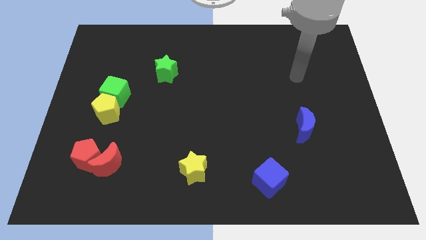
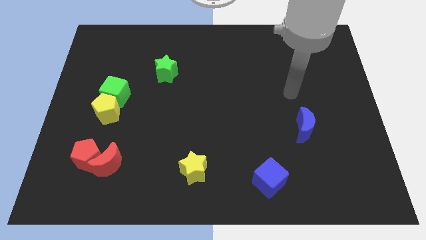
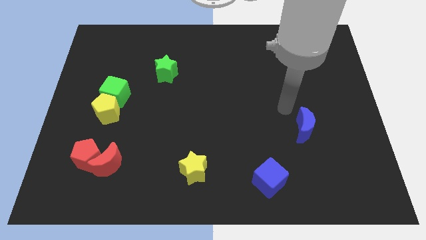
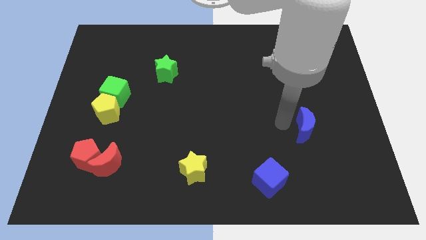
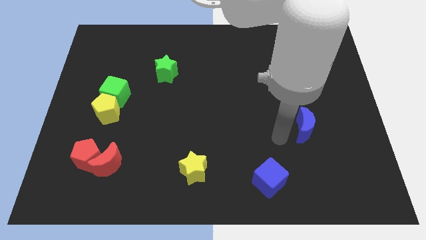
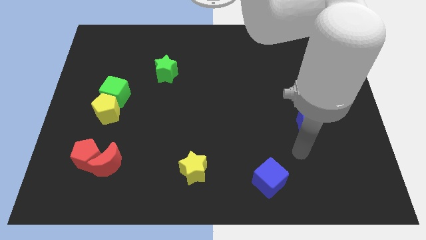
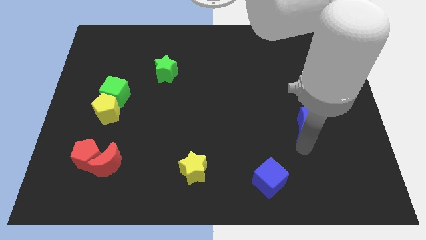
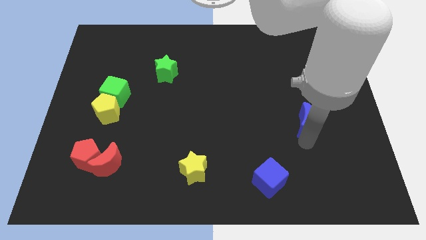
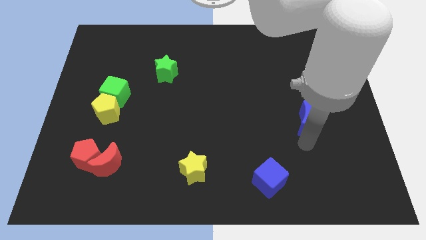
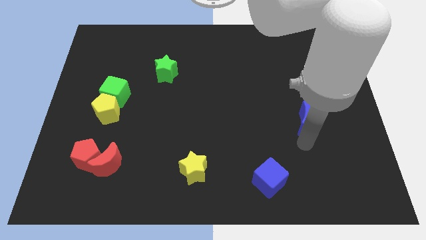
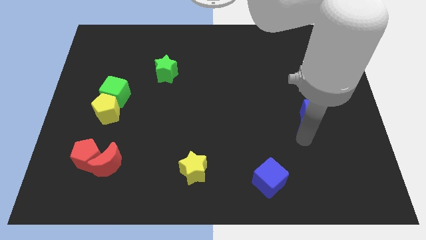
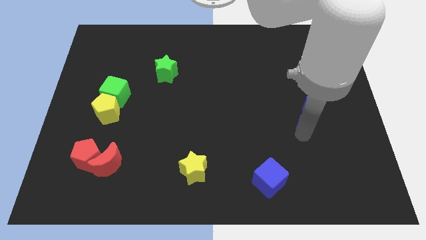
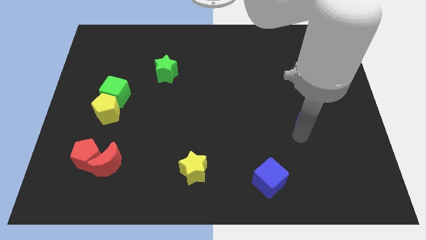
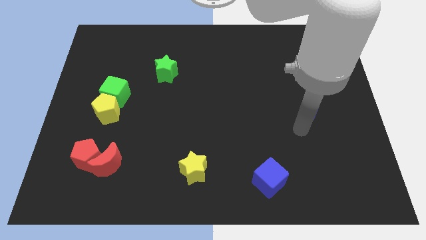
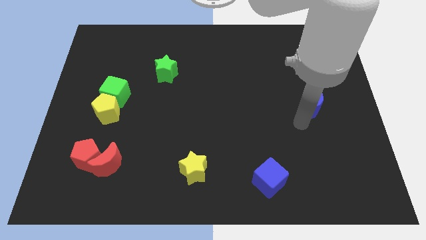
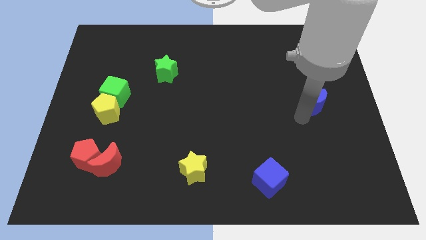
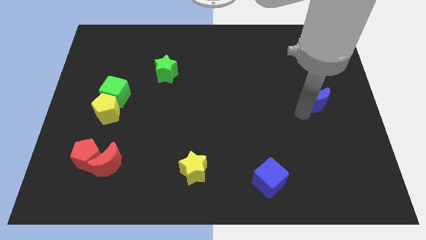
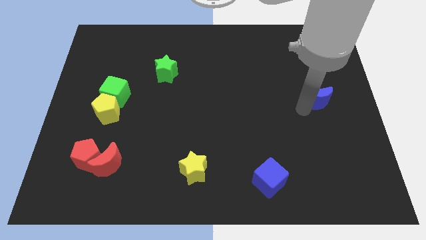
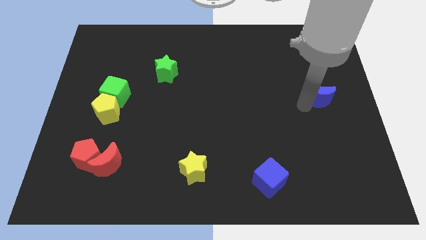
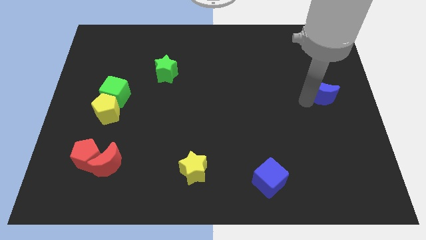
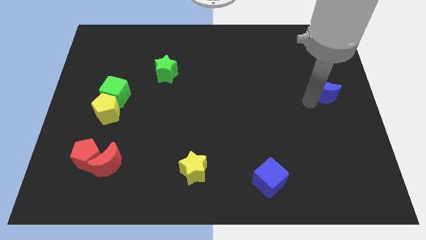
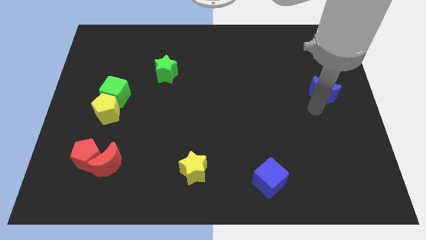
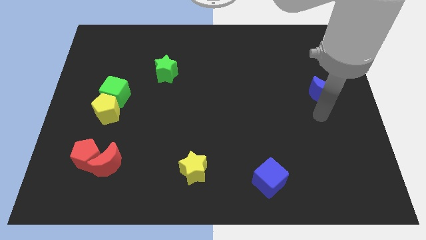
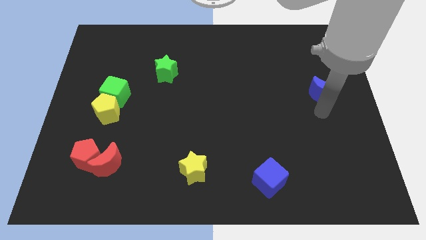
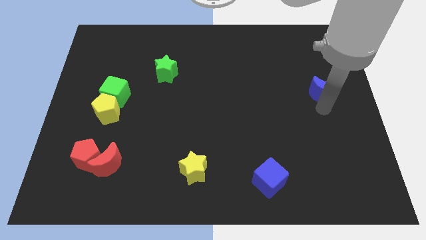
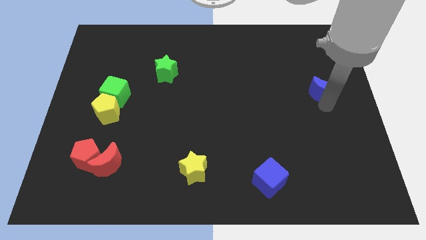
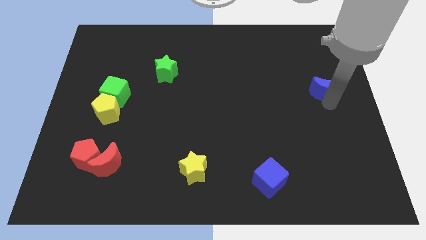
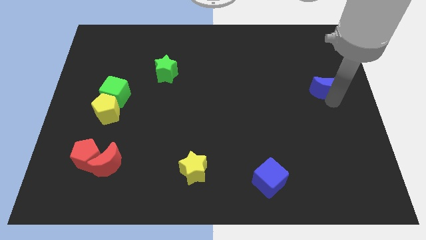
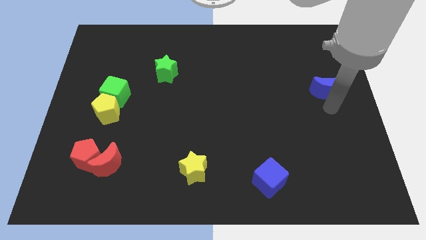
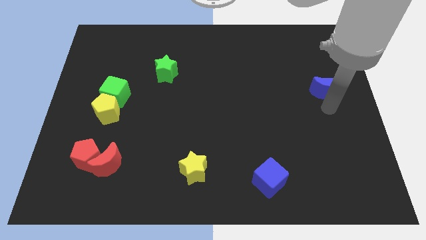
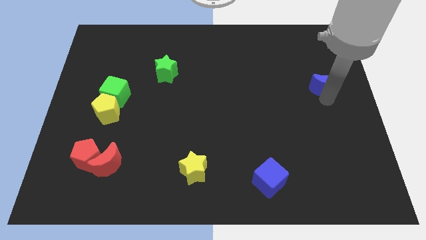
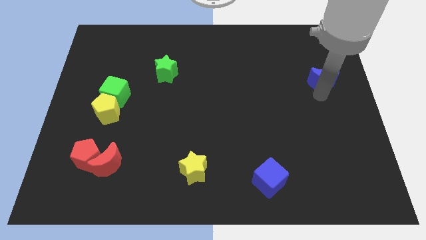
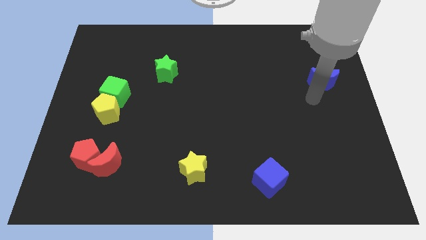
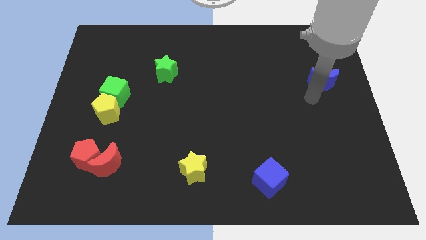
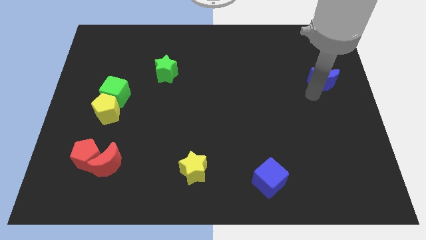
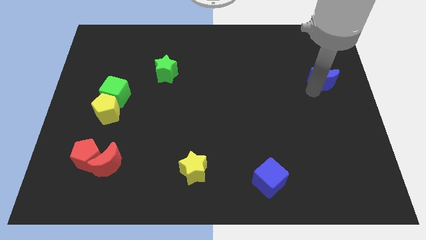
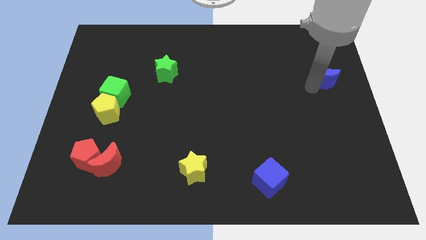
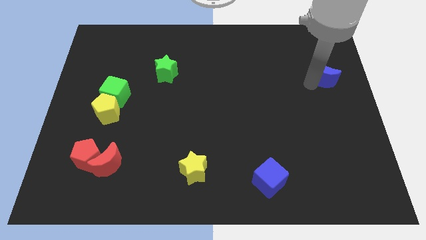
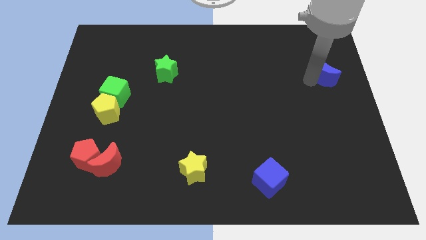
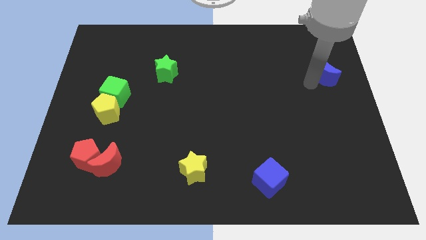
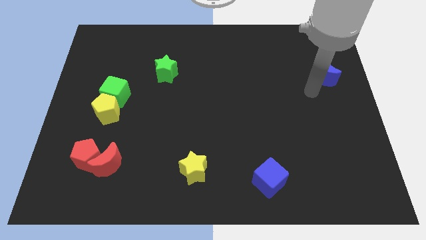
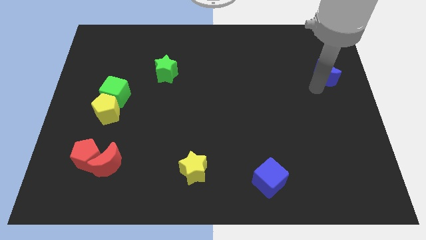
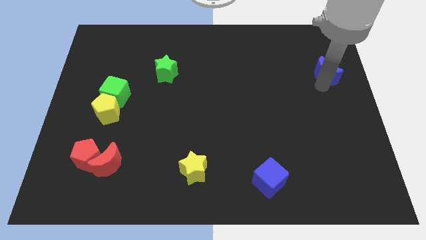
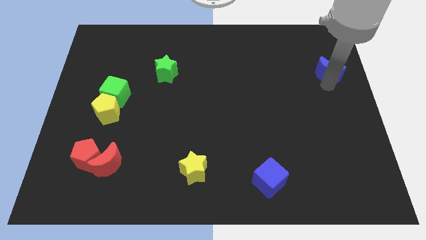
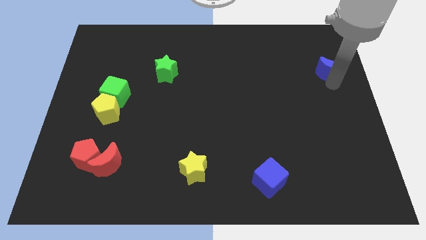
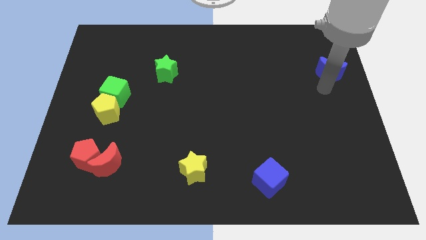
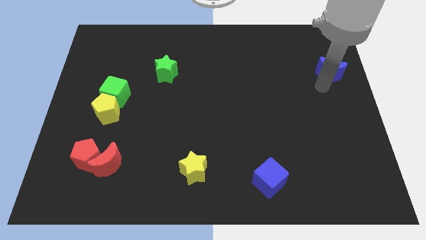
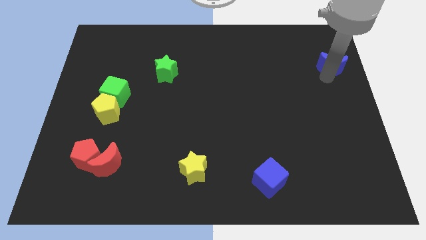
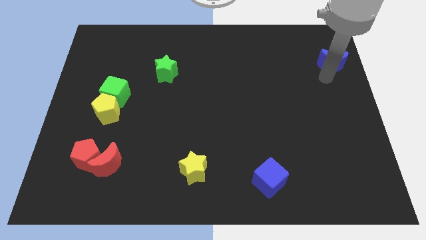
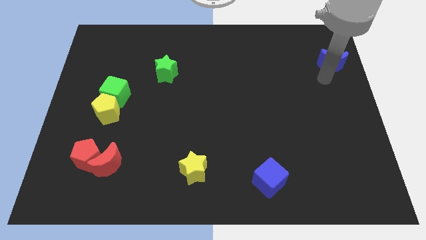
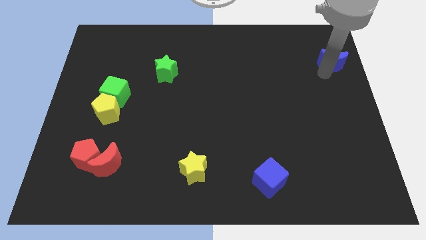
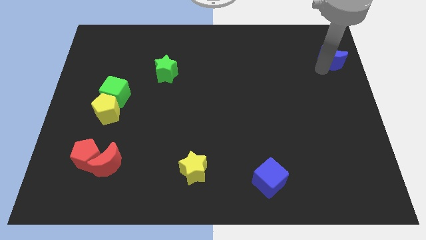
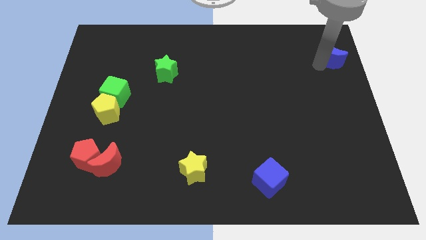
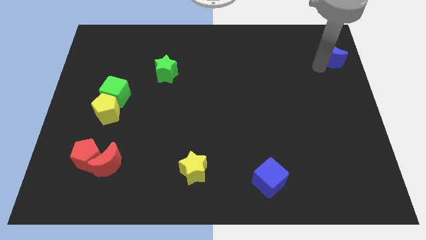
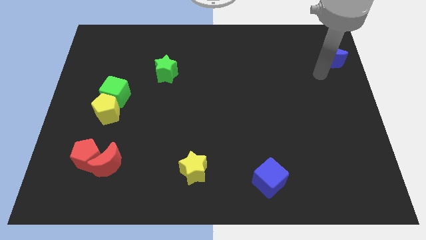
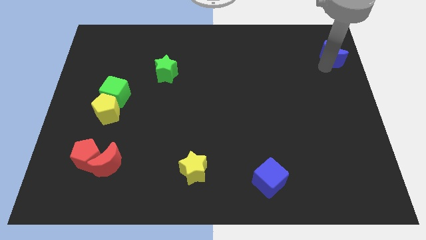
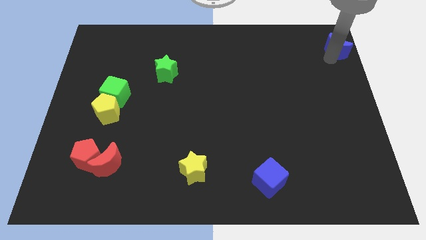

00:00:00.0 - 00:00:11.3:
move the blue moon to the top right of the board

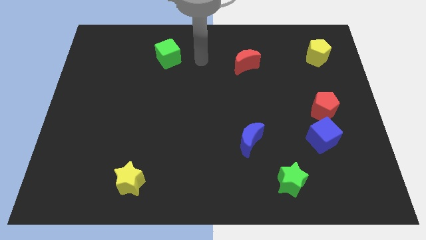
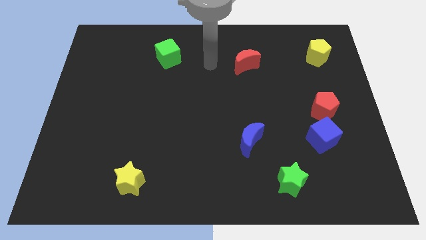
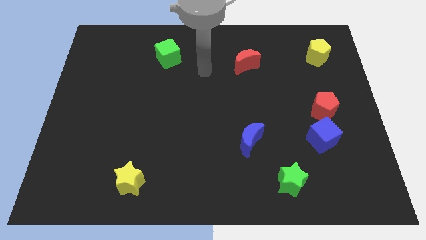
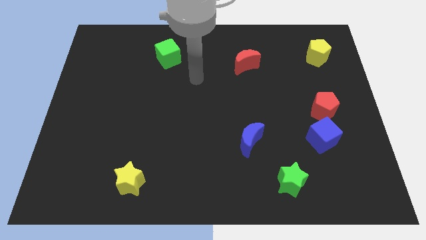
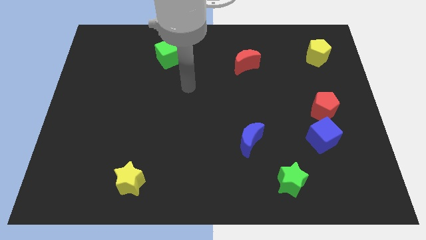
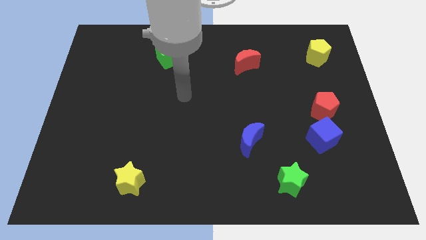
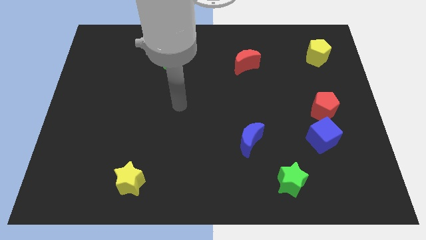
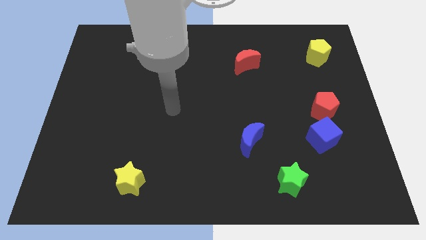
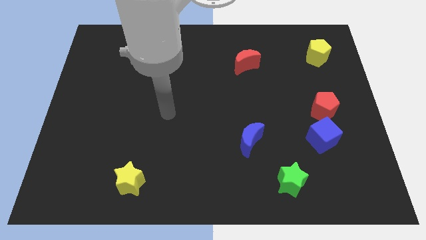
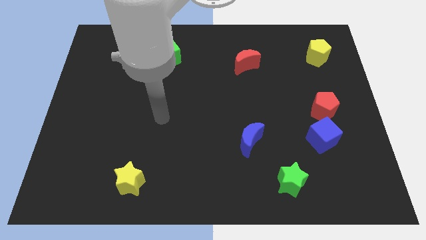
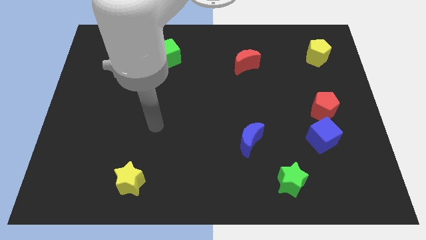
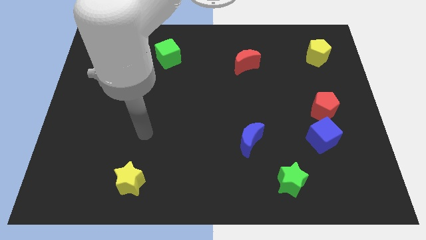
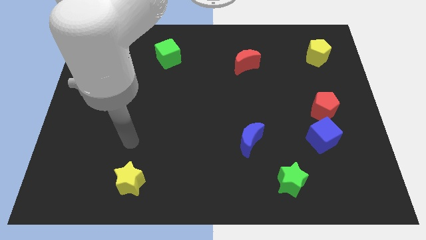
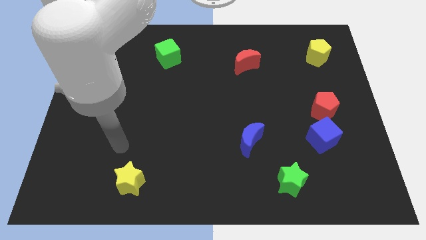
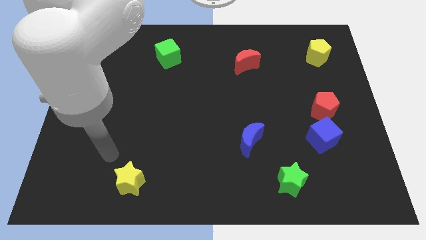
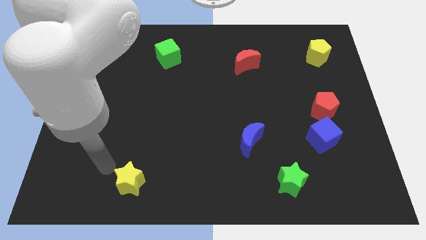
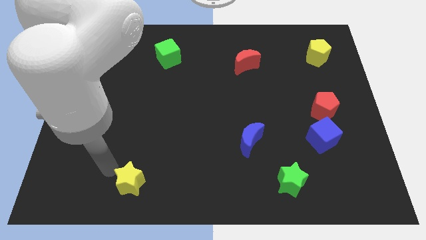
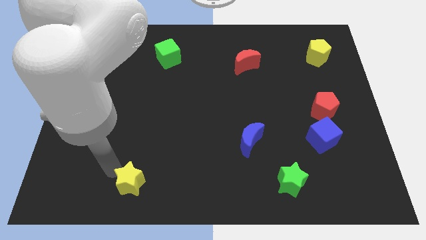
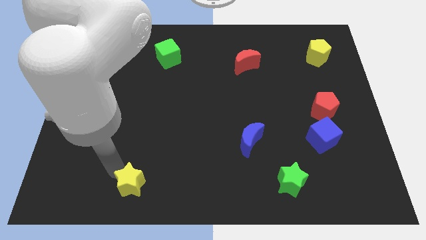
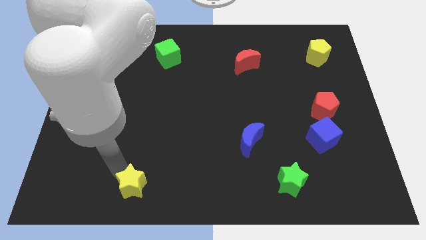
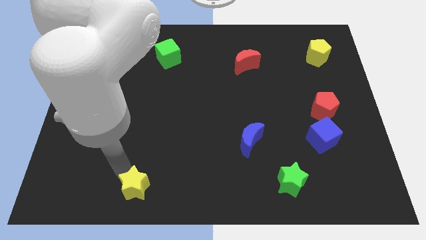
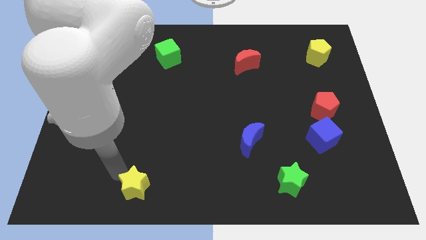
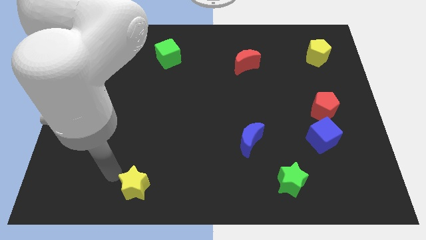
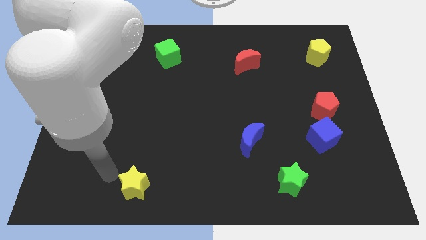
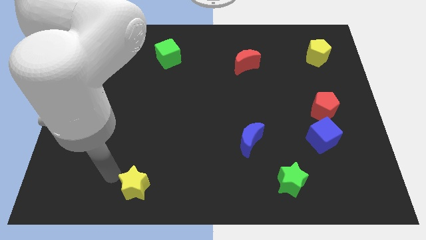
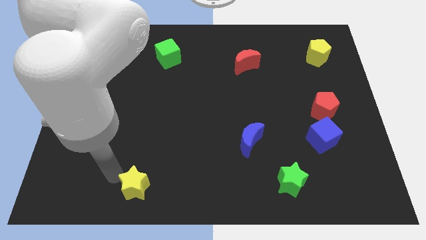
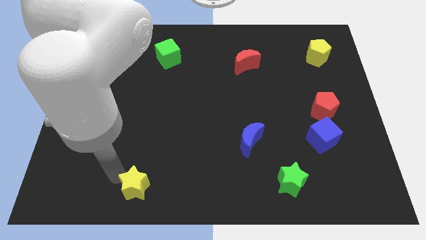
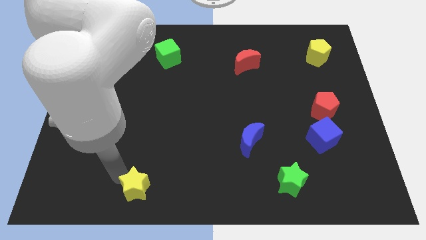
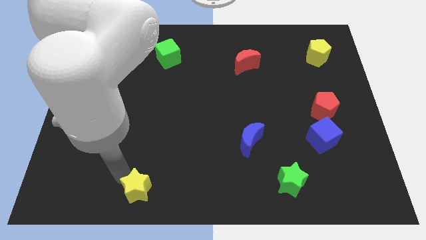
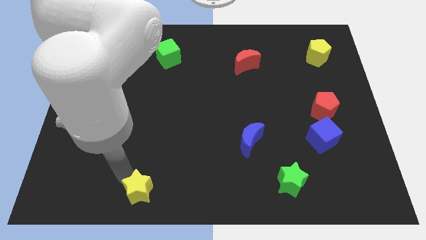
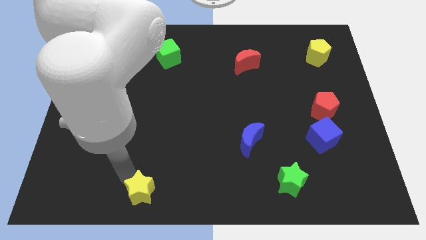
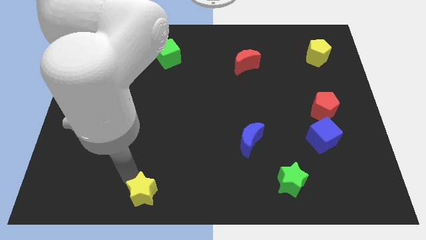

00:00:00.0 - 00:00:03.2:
slide the yellow star to the bottom side
